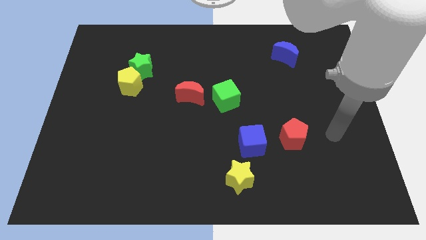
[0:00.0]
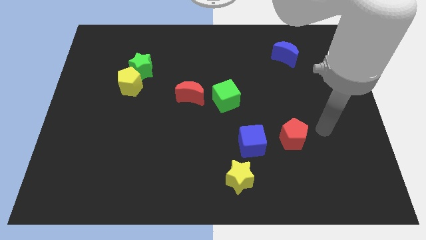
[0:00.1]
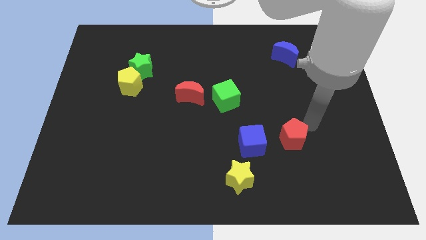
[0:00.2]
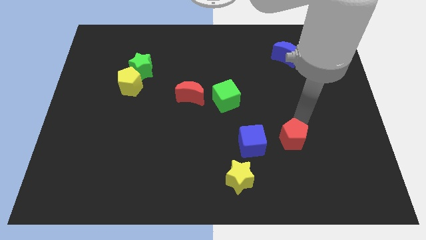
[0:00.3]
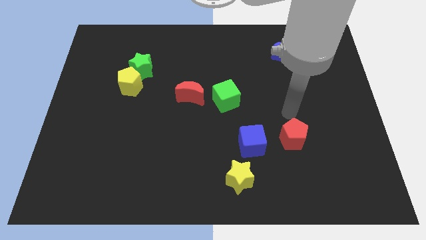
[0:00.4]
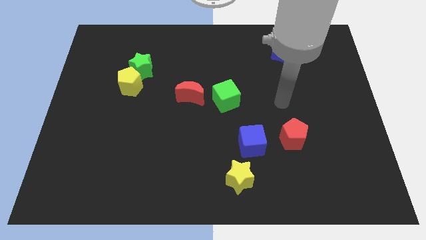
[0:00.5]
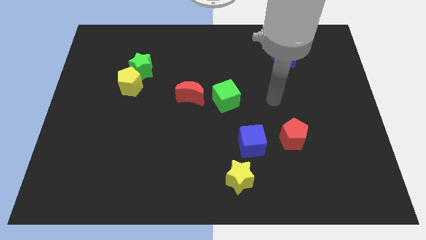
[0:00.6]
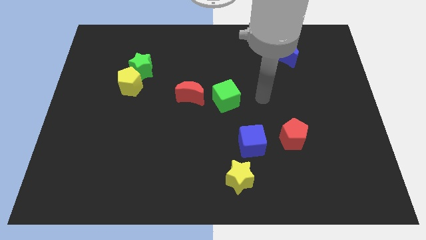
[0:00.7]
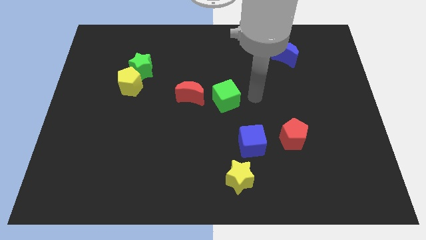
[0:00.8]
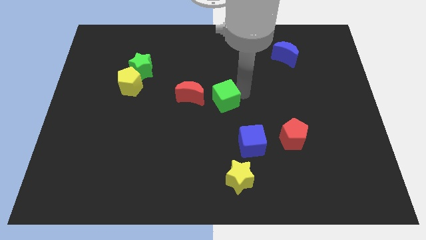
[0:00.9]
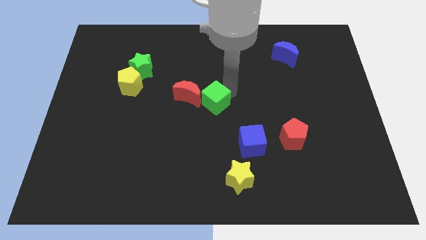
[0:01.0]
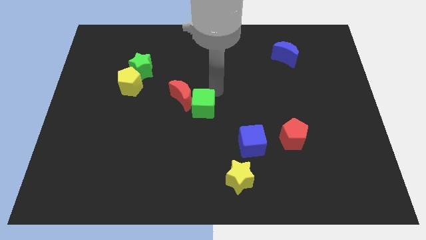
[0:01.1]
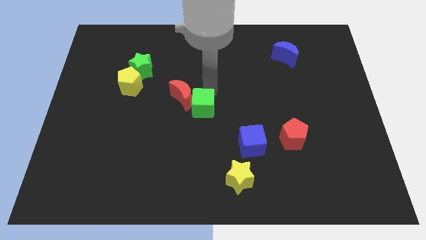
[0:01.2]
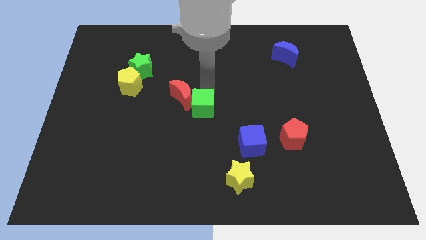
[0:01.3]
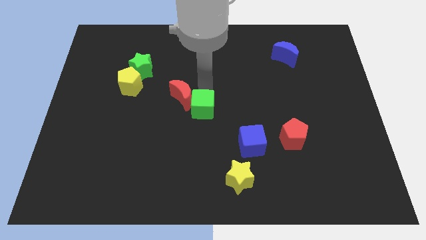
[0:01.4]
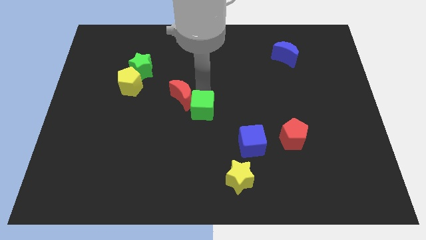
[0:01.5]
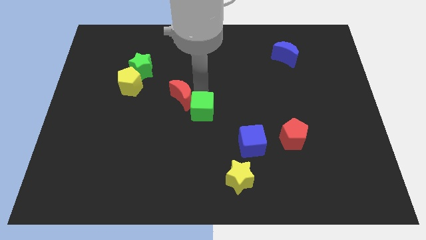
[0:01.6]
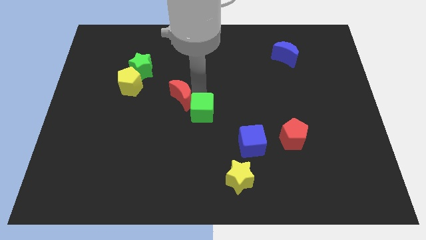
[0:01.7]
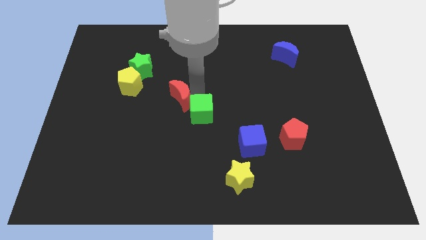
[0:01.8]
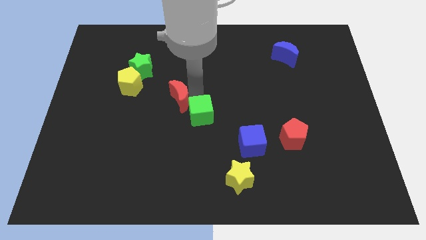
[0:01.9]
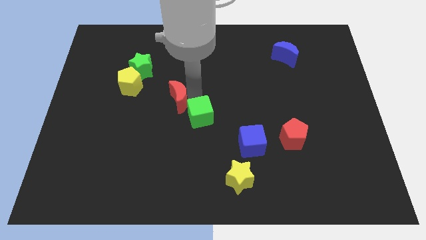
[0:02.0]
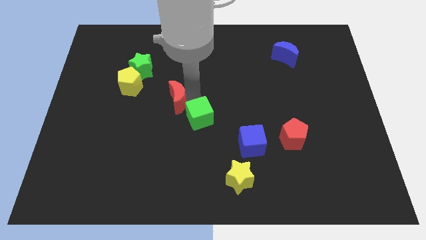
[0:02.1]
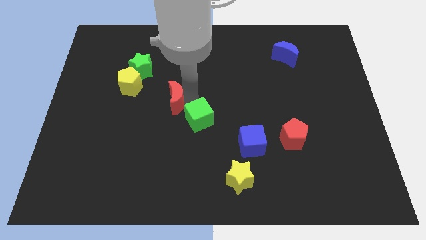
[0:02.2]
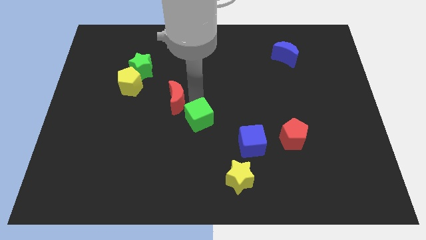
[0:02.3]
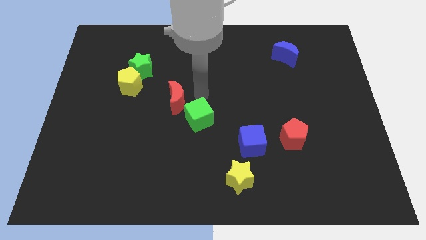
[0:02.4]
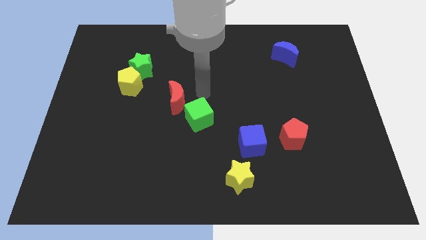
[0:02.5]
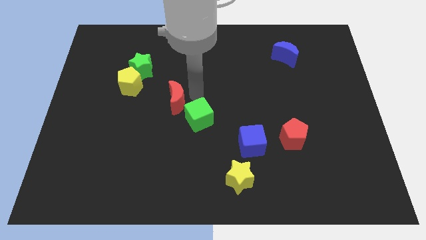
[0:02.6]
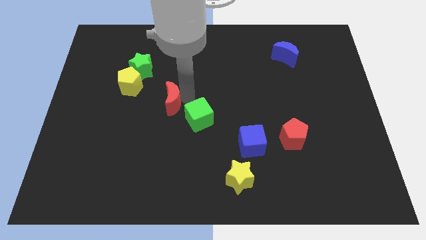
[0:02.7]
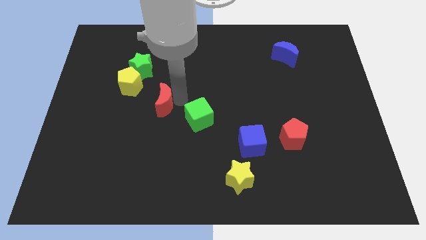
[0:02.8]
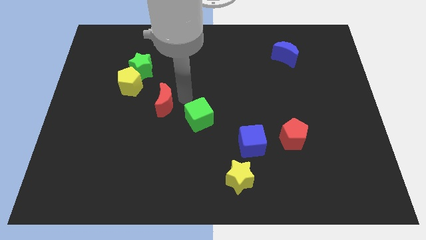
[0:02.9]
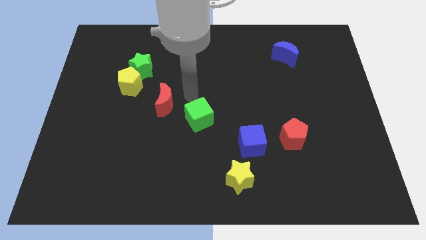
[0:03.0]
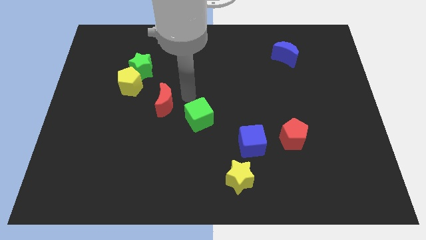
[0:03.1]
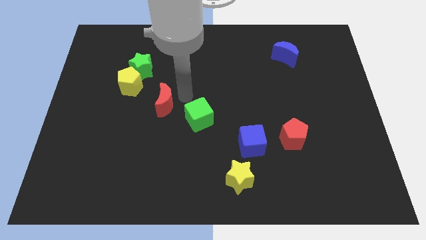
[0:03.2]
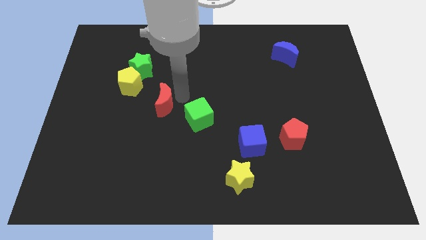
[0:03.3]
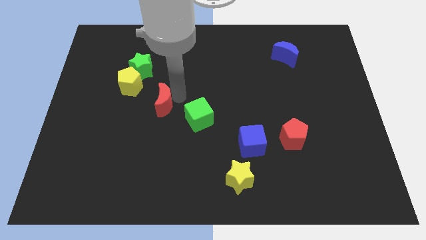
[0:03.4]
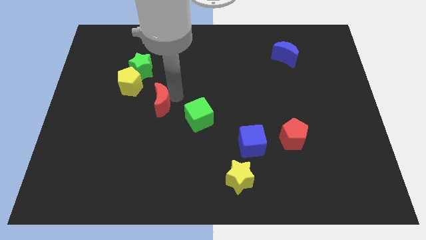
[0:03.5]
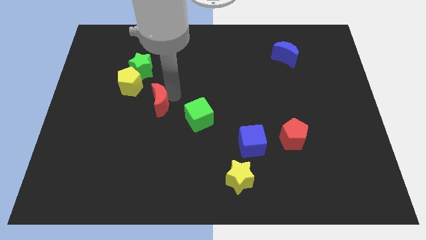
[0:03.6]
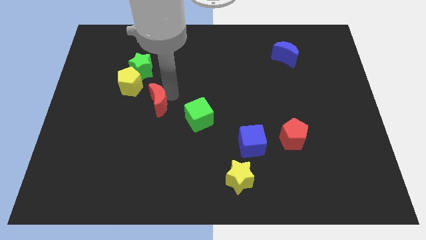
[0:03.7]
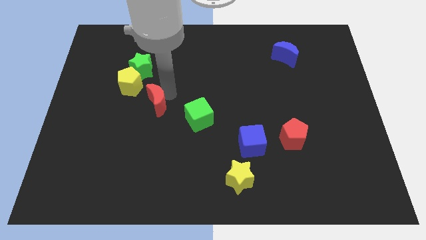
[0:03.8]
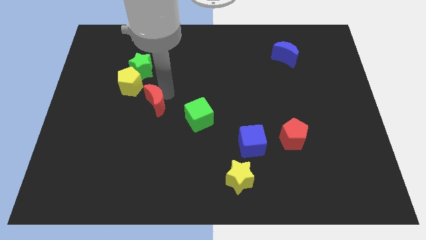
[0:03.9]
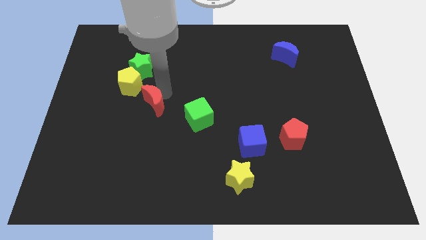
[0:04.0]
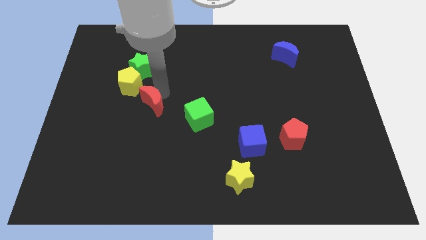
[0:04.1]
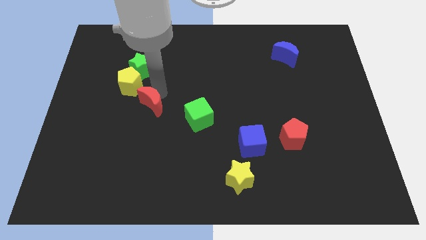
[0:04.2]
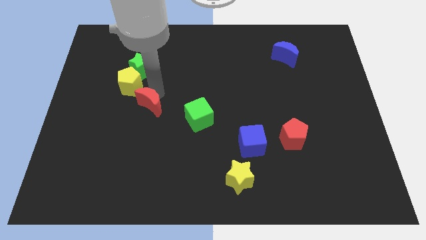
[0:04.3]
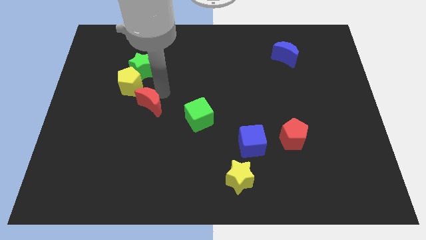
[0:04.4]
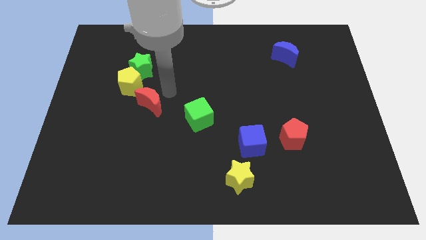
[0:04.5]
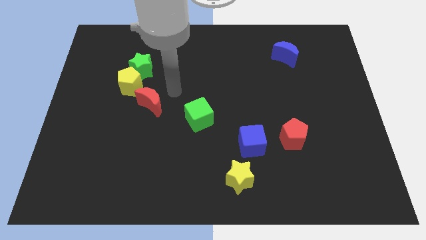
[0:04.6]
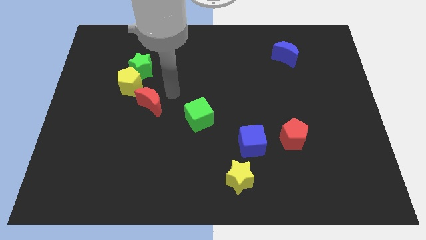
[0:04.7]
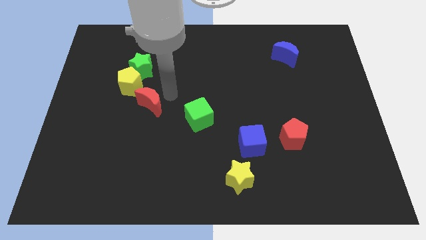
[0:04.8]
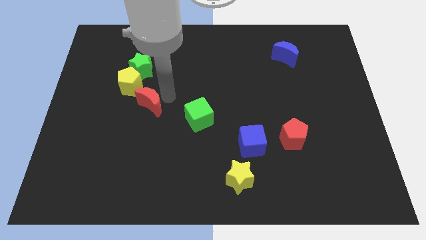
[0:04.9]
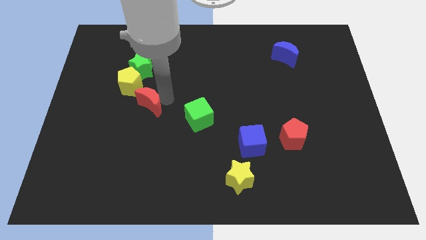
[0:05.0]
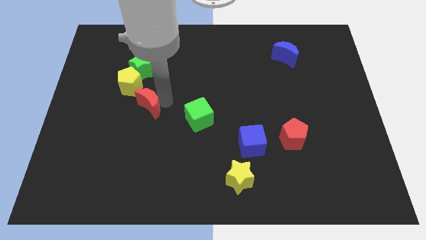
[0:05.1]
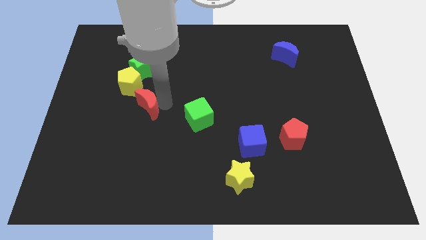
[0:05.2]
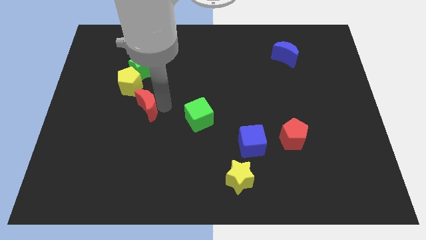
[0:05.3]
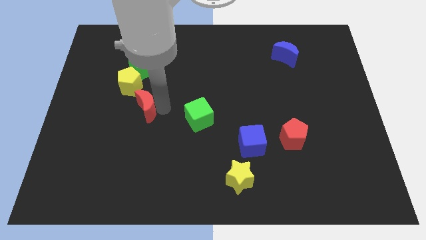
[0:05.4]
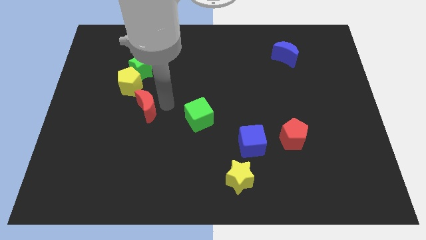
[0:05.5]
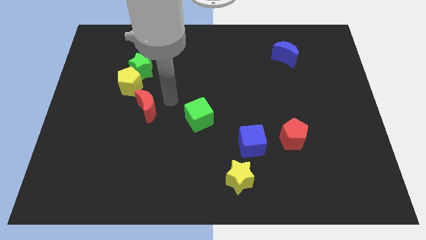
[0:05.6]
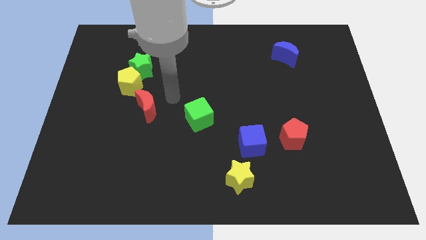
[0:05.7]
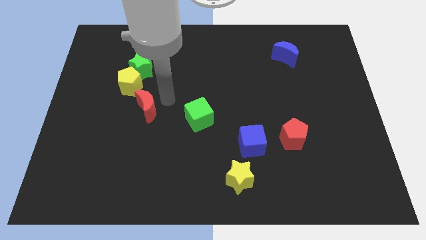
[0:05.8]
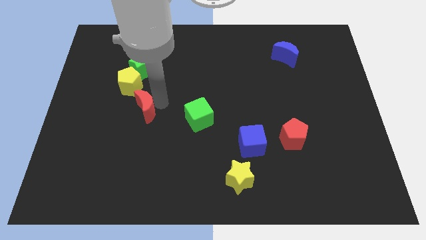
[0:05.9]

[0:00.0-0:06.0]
move the red moon below the yellow pentagon

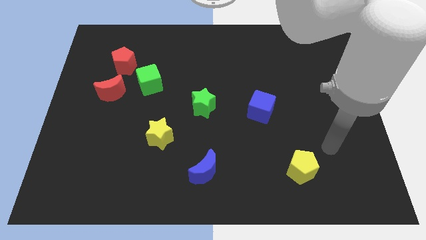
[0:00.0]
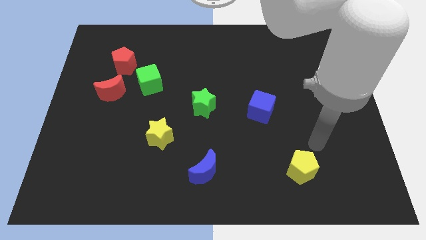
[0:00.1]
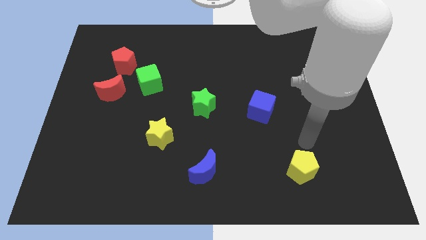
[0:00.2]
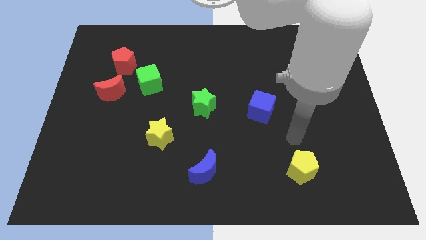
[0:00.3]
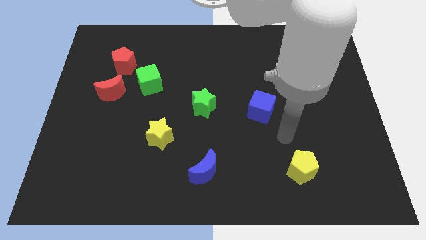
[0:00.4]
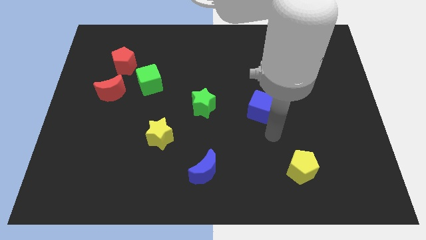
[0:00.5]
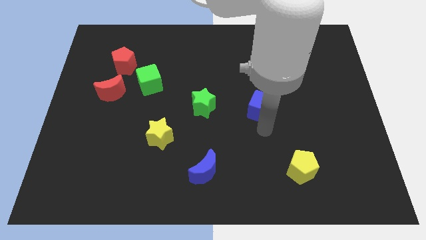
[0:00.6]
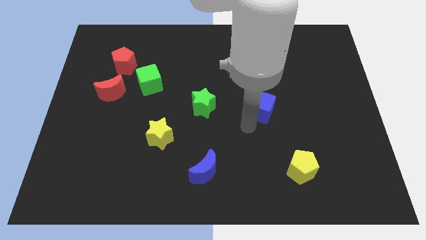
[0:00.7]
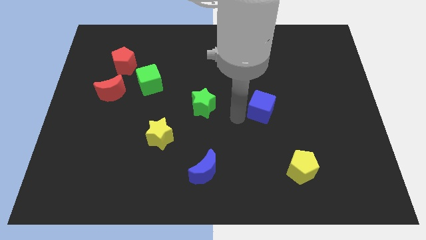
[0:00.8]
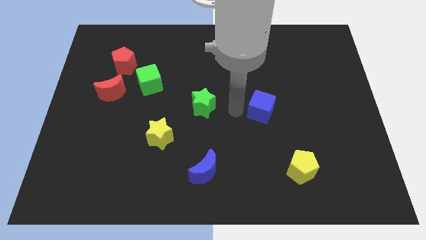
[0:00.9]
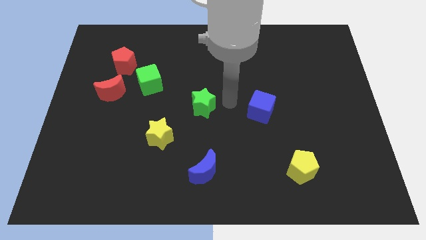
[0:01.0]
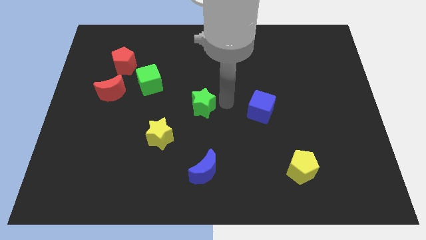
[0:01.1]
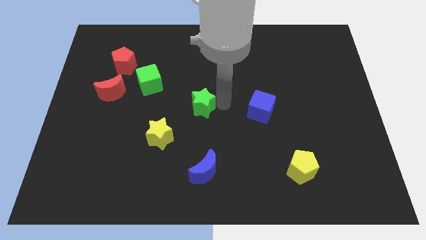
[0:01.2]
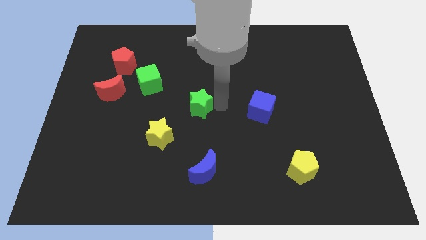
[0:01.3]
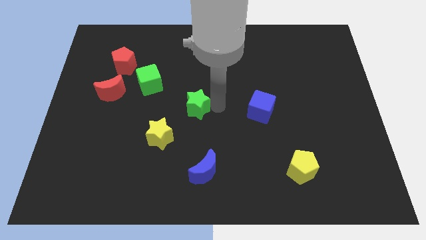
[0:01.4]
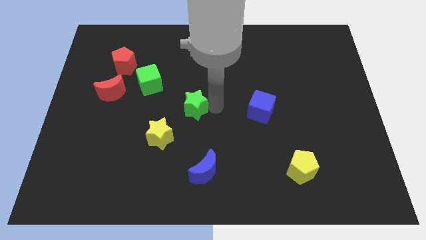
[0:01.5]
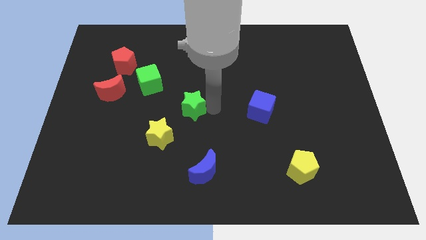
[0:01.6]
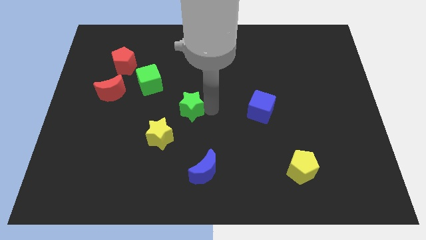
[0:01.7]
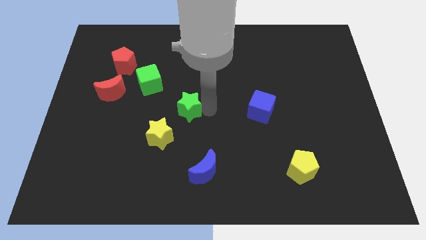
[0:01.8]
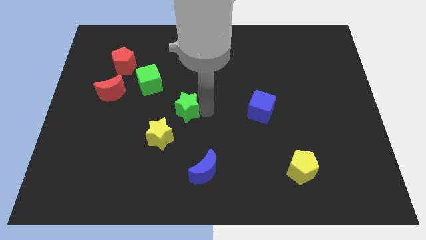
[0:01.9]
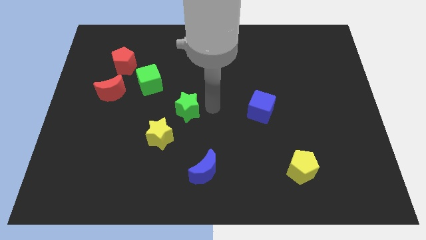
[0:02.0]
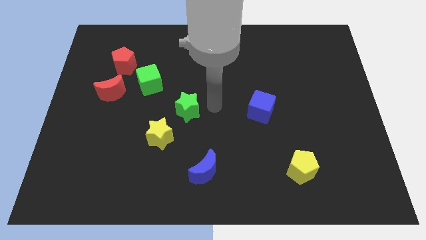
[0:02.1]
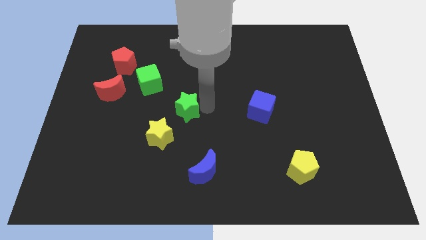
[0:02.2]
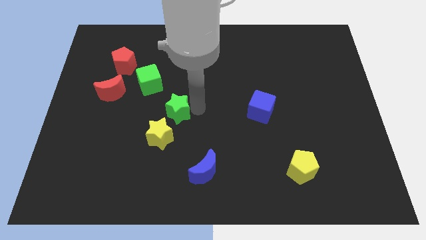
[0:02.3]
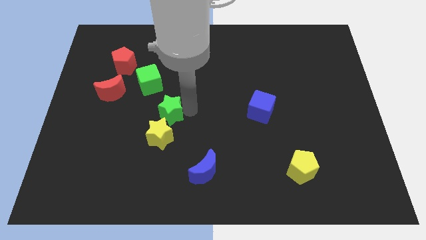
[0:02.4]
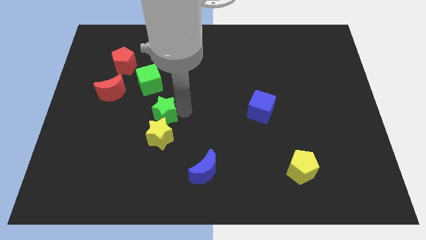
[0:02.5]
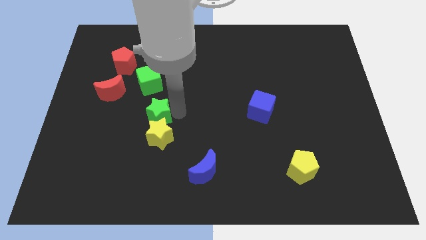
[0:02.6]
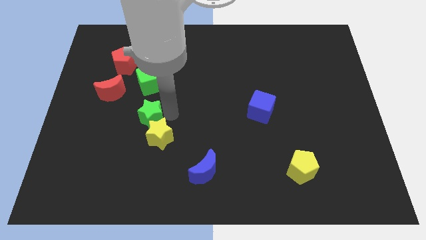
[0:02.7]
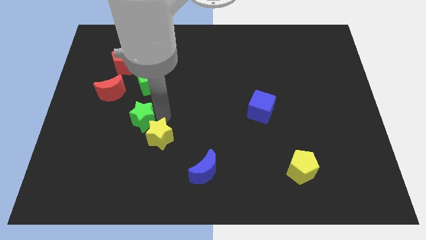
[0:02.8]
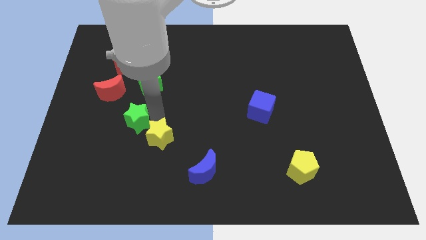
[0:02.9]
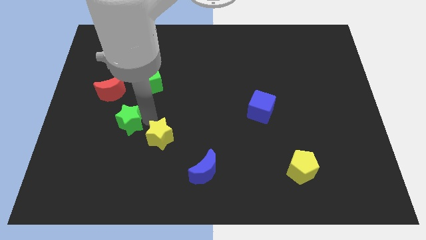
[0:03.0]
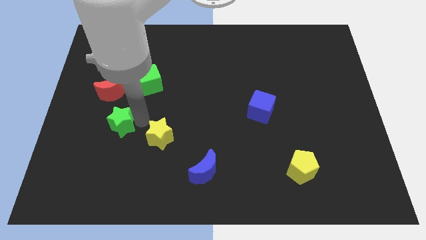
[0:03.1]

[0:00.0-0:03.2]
push the green star to the bottom side of the red moon
